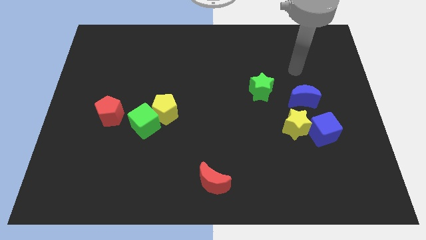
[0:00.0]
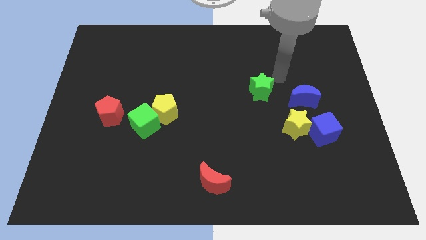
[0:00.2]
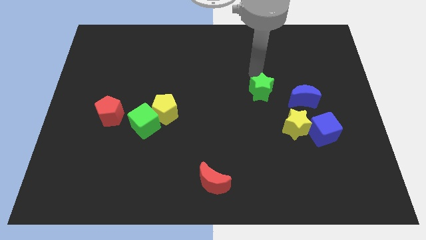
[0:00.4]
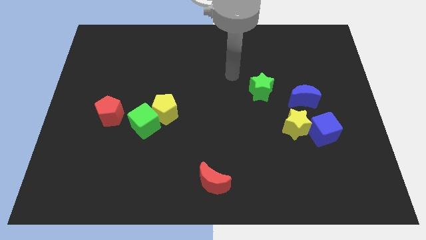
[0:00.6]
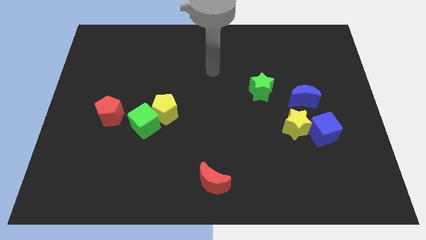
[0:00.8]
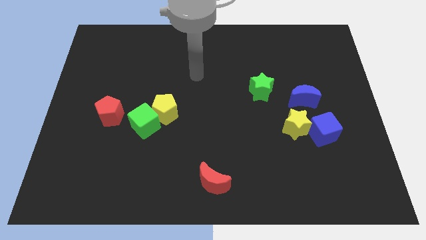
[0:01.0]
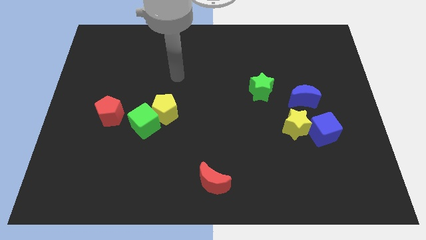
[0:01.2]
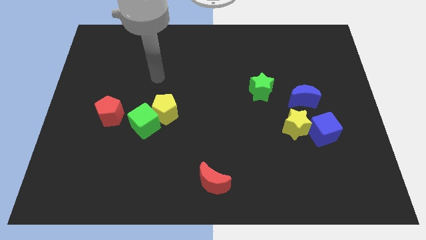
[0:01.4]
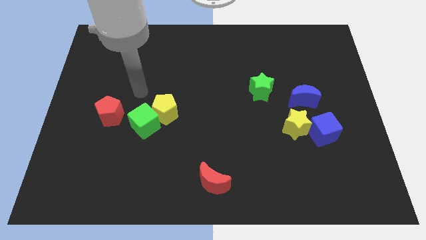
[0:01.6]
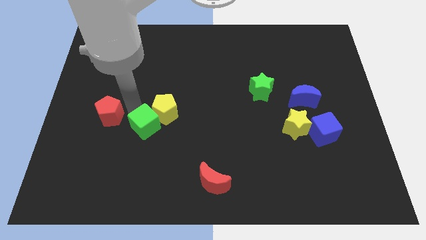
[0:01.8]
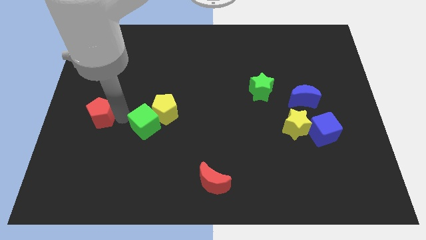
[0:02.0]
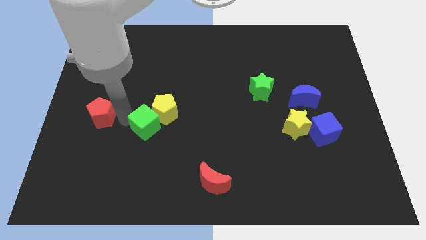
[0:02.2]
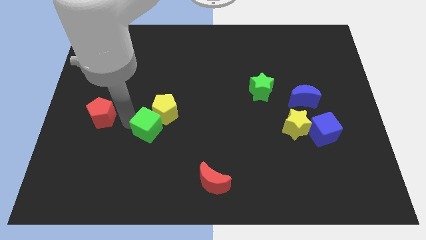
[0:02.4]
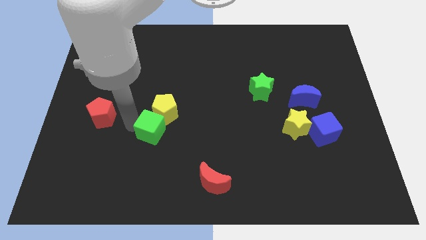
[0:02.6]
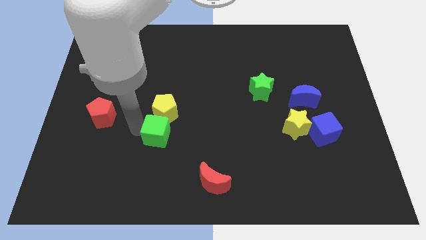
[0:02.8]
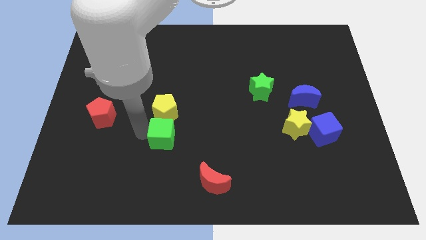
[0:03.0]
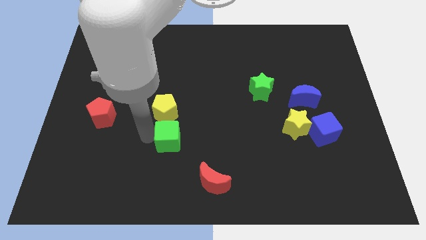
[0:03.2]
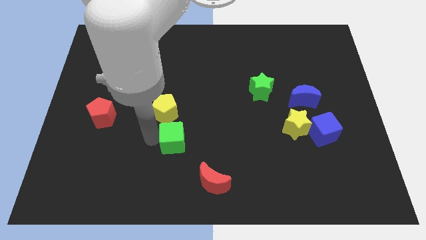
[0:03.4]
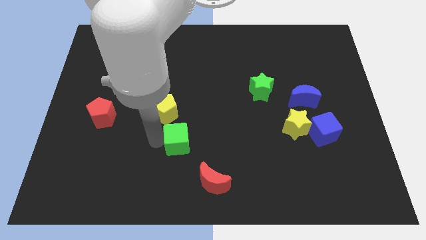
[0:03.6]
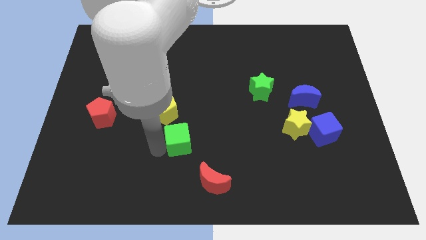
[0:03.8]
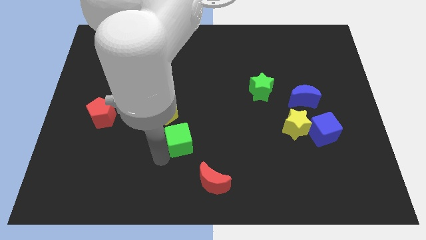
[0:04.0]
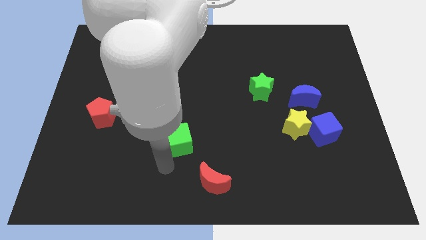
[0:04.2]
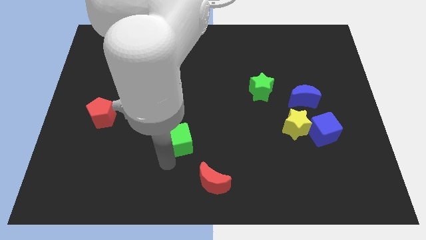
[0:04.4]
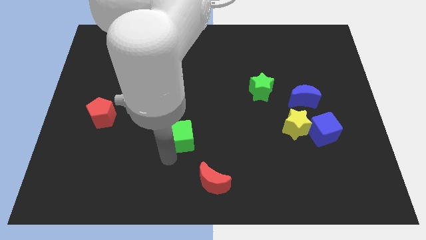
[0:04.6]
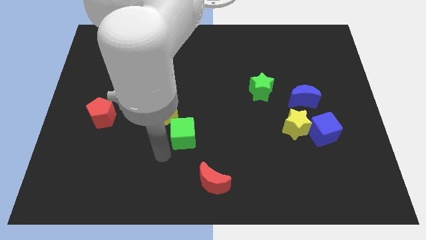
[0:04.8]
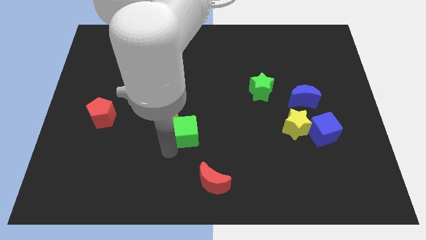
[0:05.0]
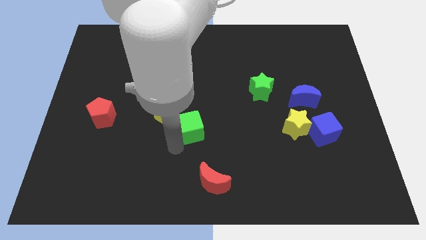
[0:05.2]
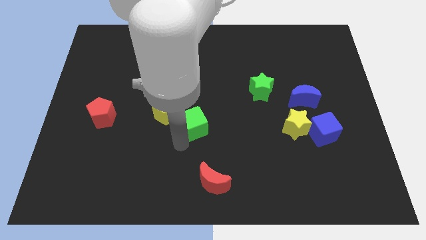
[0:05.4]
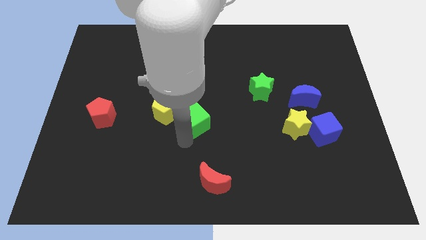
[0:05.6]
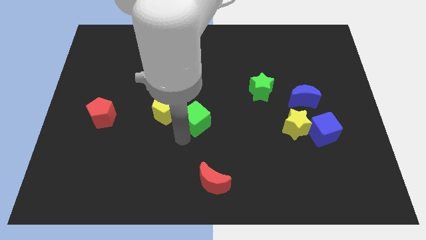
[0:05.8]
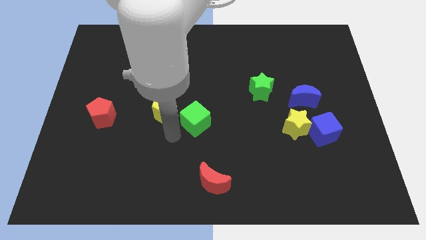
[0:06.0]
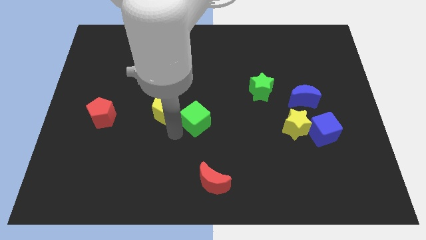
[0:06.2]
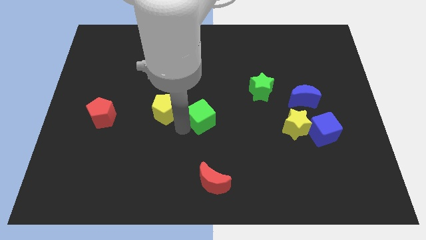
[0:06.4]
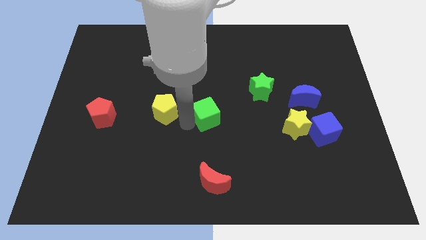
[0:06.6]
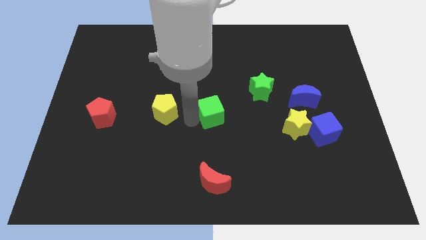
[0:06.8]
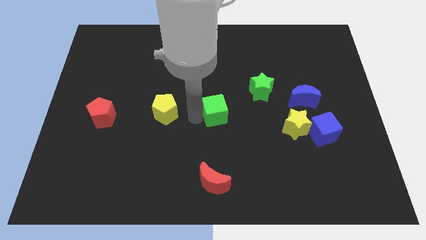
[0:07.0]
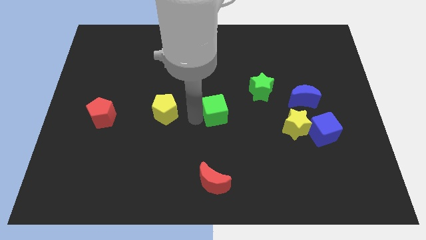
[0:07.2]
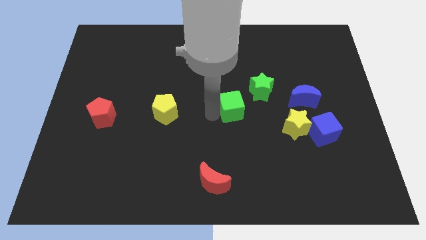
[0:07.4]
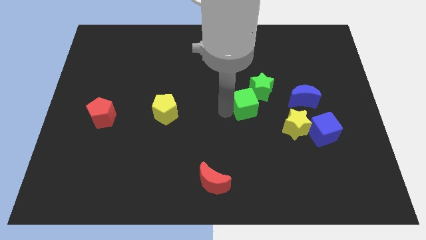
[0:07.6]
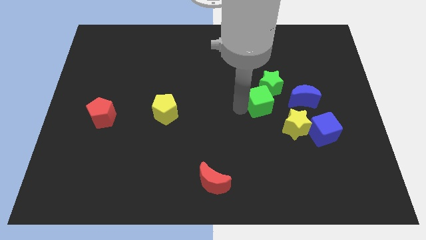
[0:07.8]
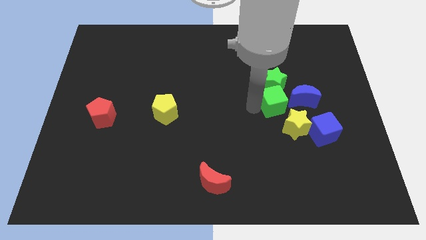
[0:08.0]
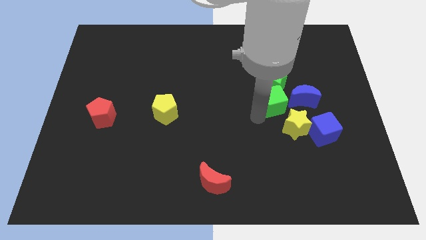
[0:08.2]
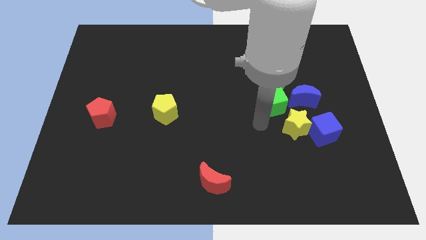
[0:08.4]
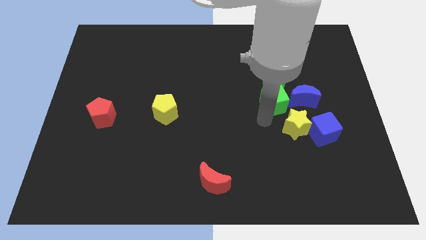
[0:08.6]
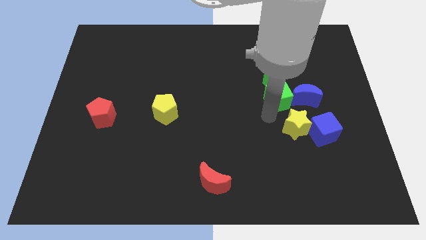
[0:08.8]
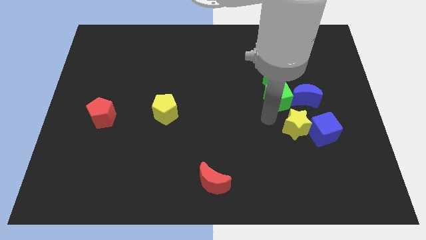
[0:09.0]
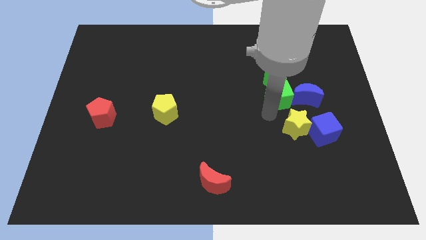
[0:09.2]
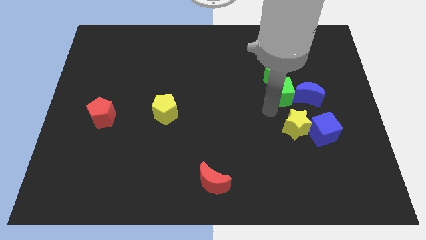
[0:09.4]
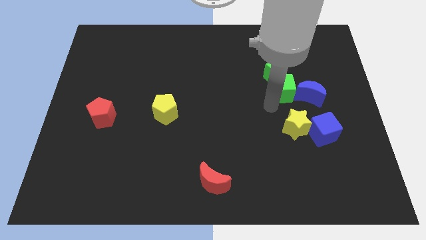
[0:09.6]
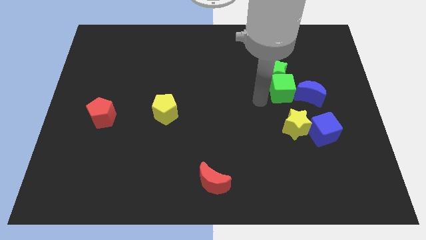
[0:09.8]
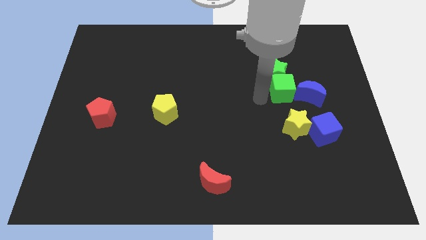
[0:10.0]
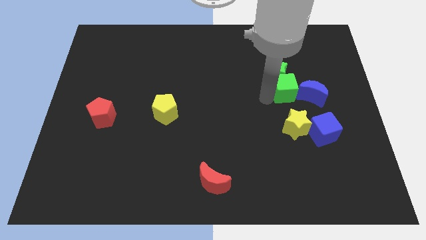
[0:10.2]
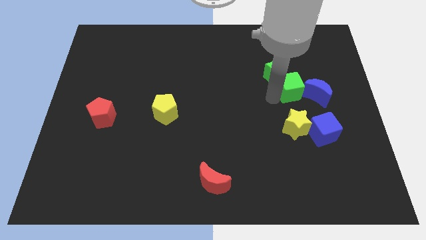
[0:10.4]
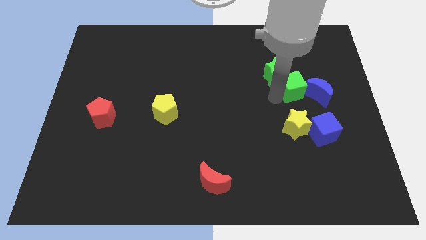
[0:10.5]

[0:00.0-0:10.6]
slide the green cube just right of the green star

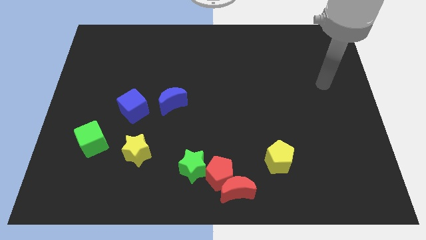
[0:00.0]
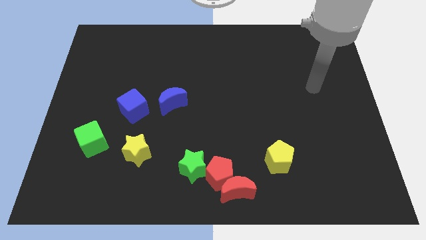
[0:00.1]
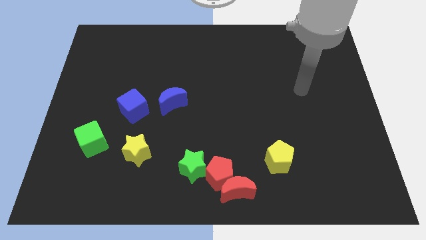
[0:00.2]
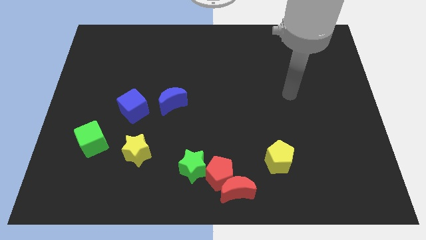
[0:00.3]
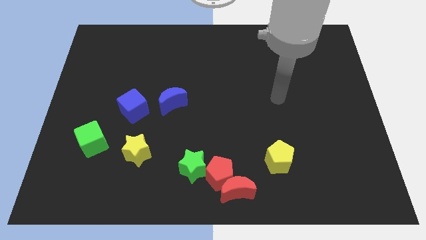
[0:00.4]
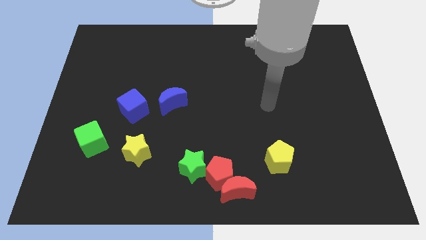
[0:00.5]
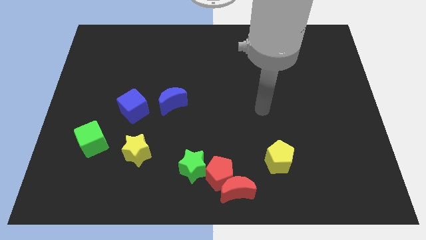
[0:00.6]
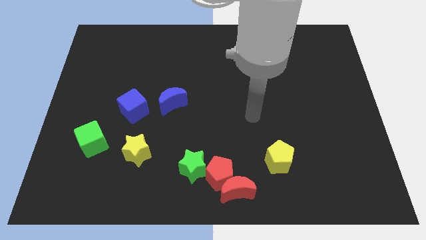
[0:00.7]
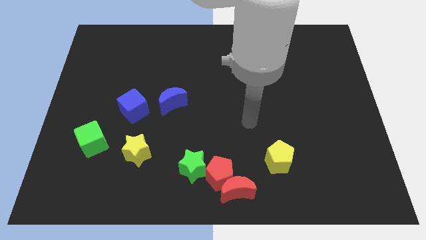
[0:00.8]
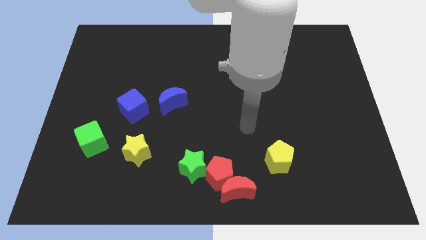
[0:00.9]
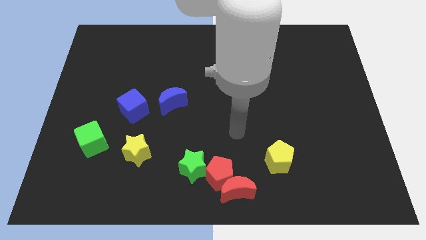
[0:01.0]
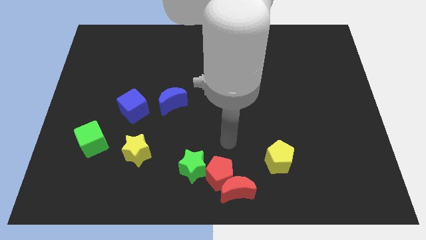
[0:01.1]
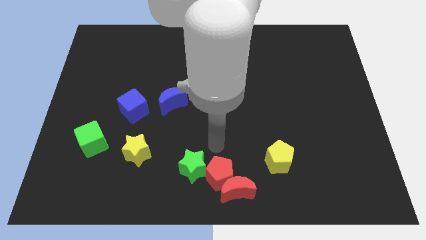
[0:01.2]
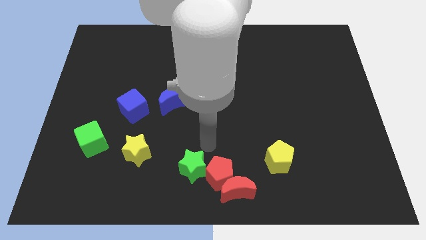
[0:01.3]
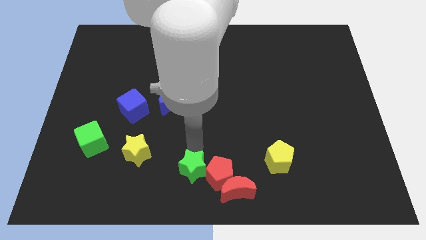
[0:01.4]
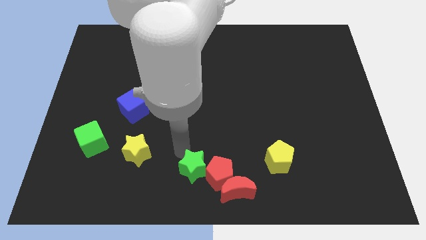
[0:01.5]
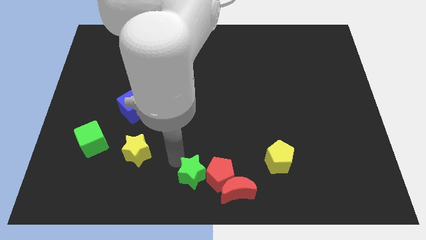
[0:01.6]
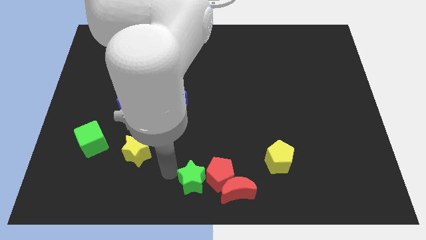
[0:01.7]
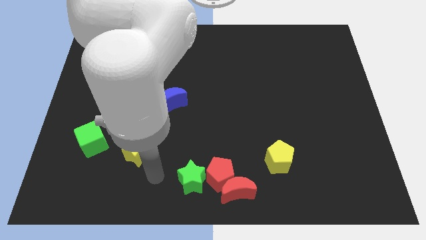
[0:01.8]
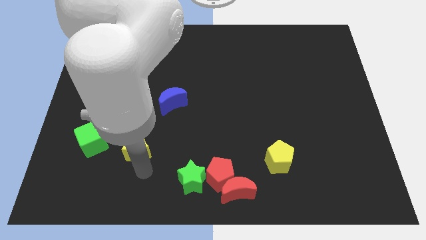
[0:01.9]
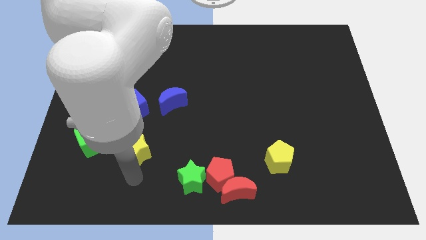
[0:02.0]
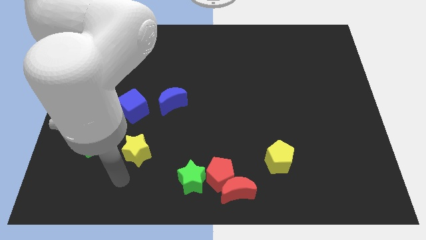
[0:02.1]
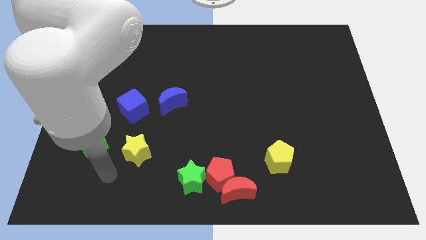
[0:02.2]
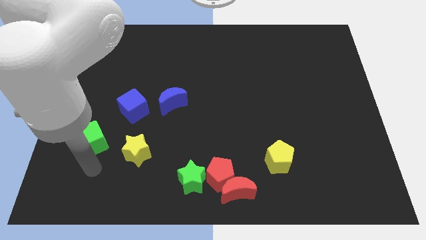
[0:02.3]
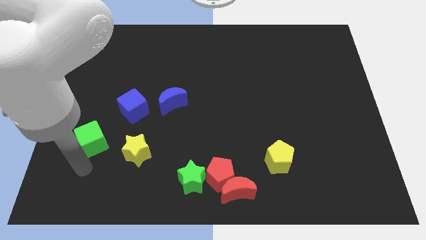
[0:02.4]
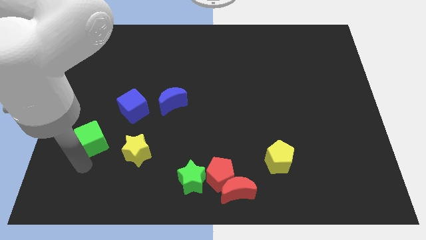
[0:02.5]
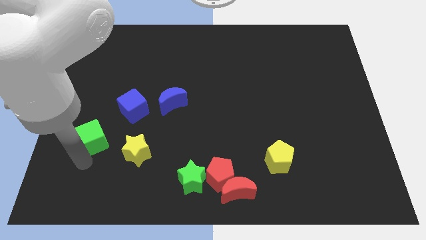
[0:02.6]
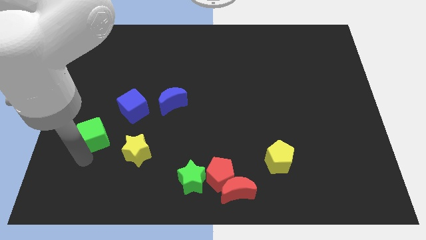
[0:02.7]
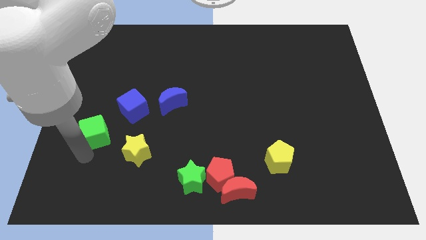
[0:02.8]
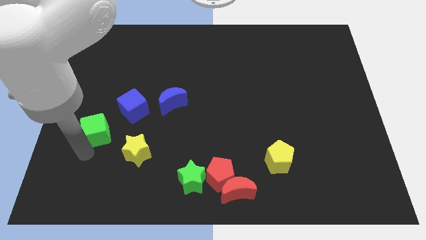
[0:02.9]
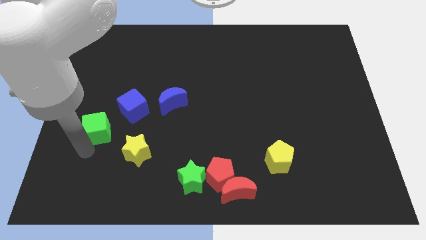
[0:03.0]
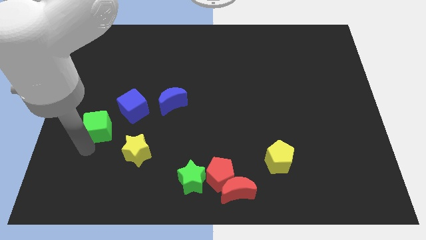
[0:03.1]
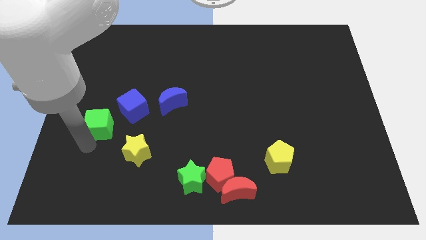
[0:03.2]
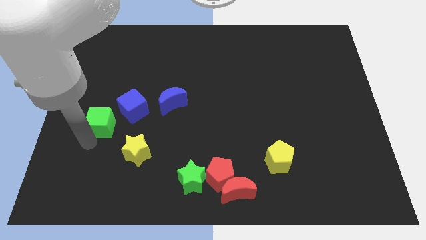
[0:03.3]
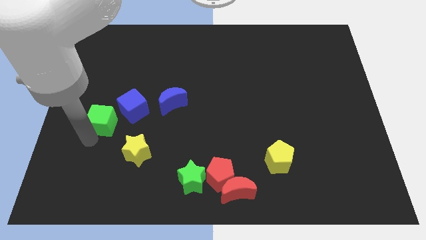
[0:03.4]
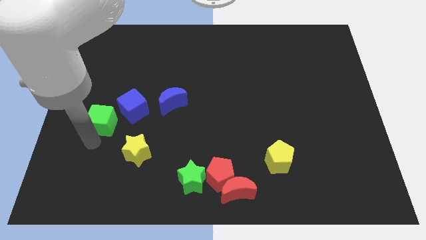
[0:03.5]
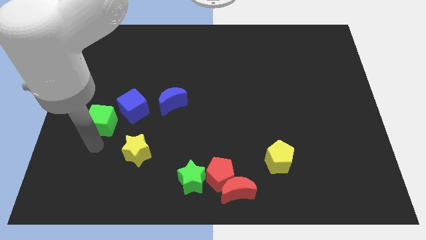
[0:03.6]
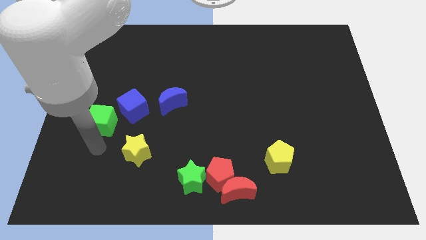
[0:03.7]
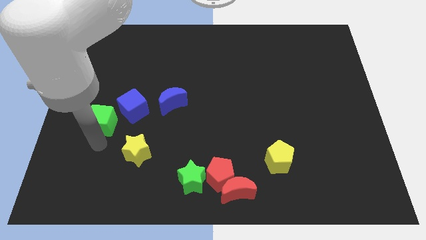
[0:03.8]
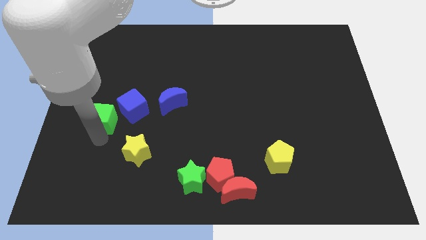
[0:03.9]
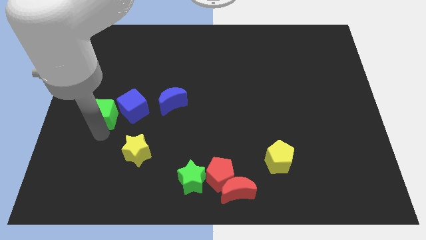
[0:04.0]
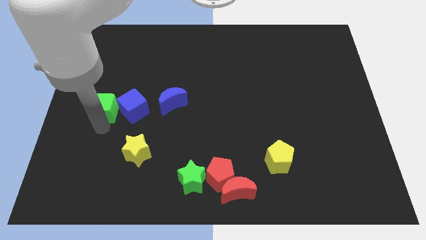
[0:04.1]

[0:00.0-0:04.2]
push the green cube to the top left of the blue cube
